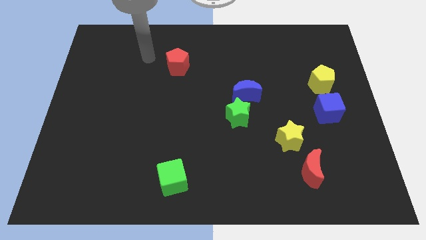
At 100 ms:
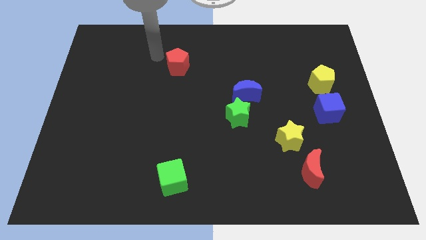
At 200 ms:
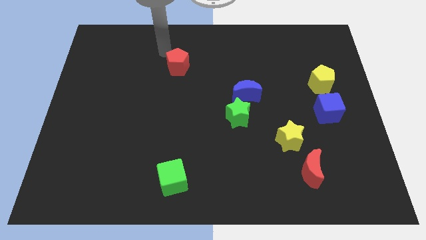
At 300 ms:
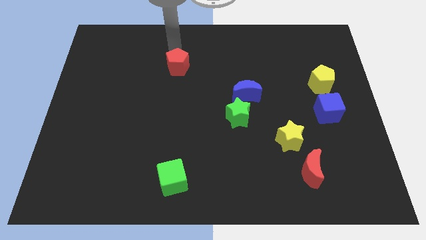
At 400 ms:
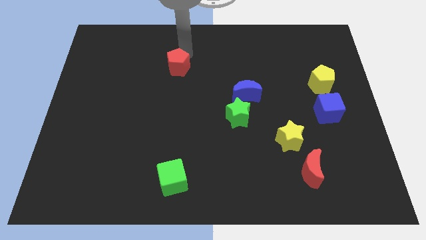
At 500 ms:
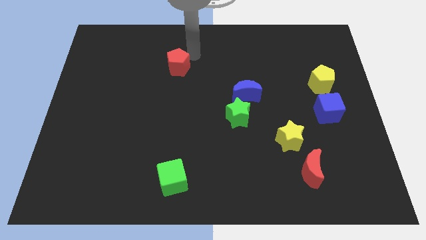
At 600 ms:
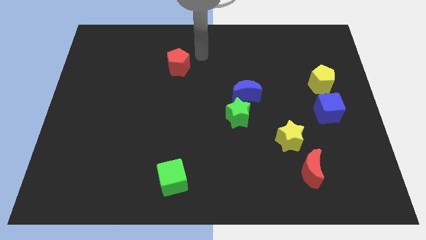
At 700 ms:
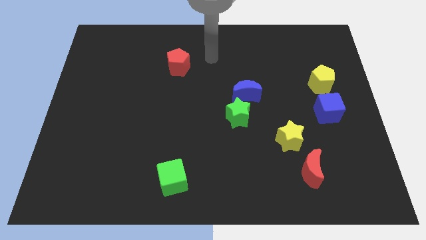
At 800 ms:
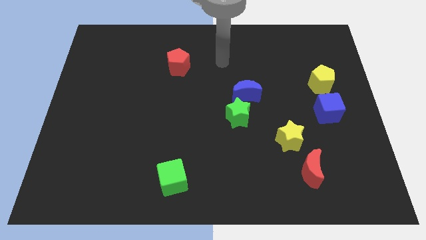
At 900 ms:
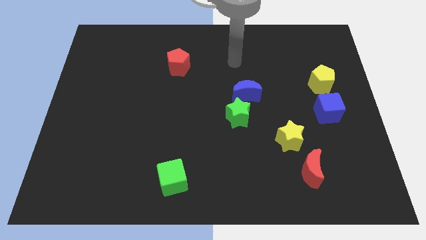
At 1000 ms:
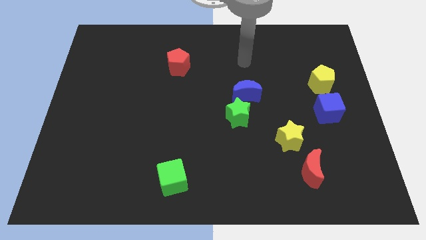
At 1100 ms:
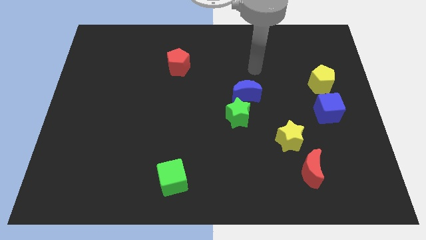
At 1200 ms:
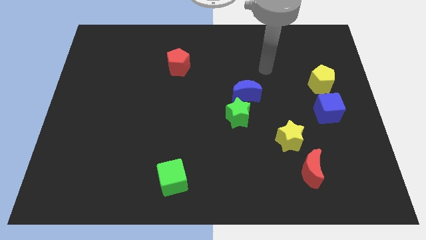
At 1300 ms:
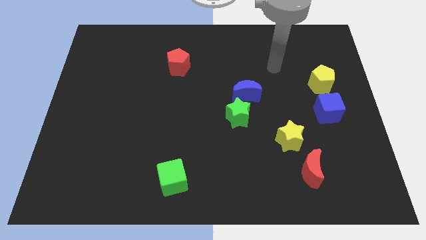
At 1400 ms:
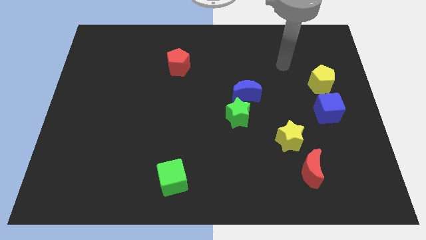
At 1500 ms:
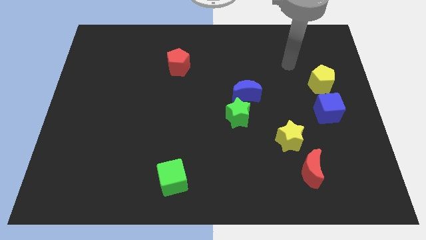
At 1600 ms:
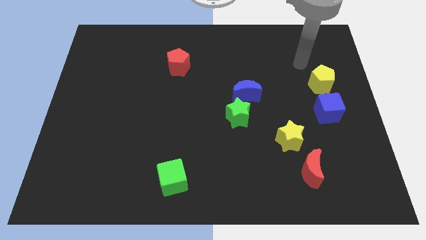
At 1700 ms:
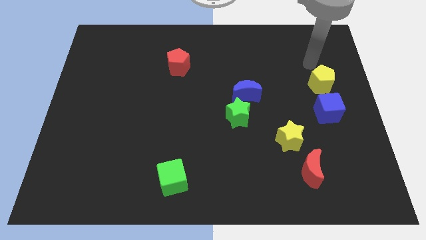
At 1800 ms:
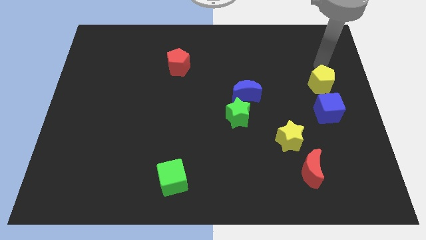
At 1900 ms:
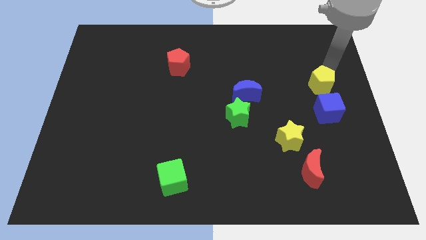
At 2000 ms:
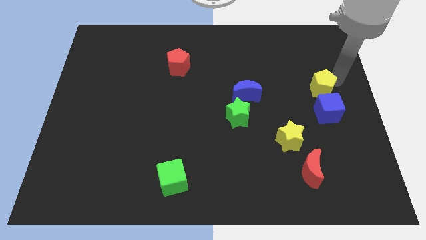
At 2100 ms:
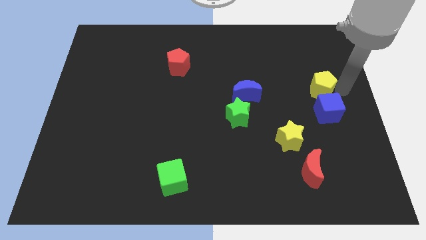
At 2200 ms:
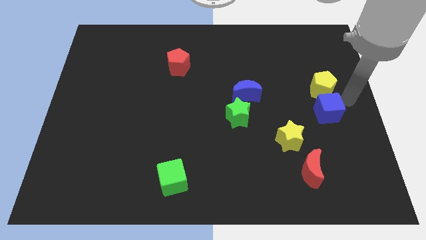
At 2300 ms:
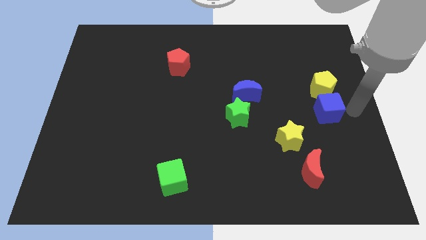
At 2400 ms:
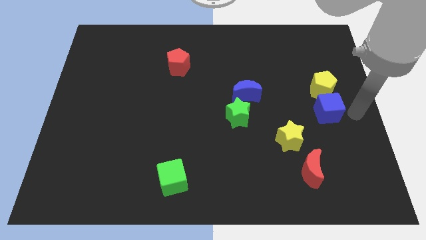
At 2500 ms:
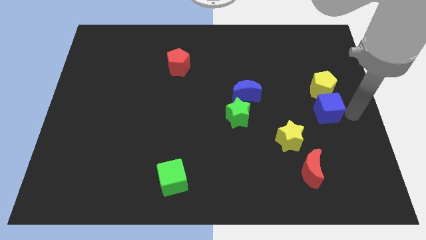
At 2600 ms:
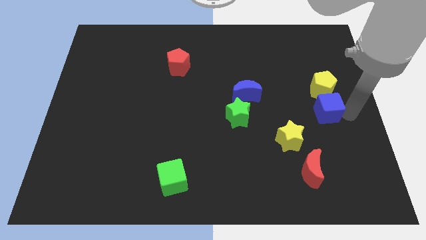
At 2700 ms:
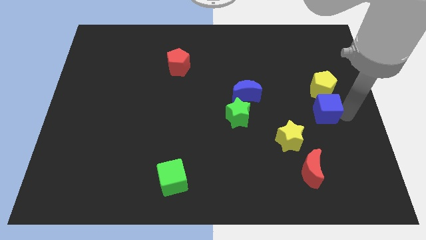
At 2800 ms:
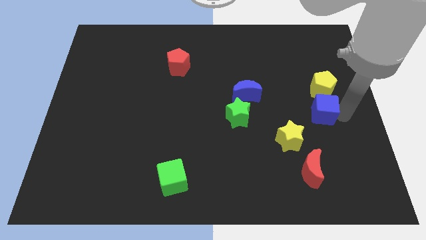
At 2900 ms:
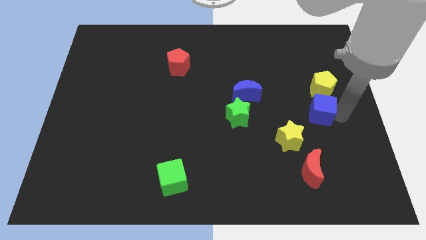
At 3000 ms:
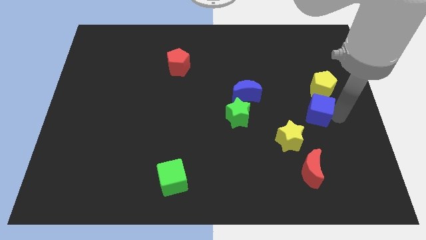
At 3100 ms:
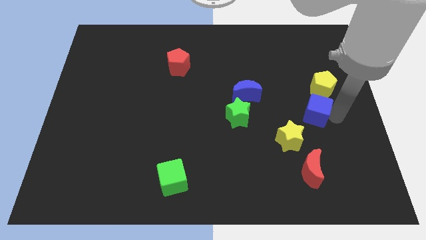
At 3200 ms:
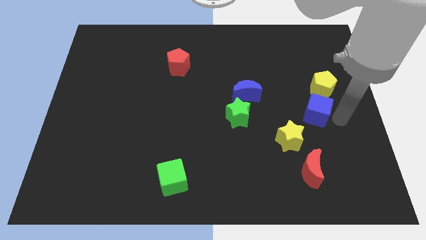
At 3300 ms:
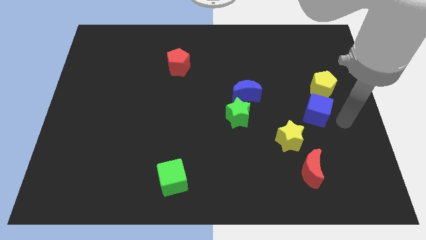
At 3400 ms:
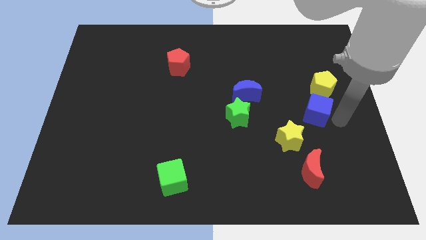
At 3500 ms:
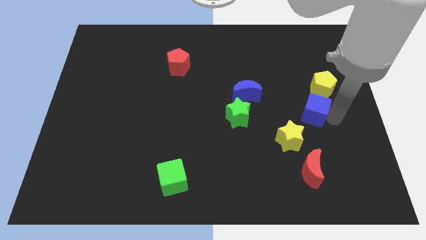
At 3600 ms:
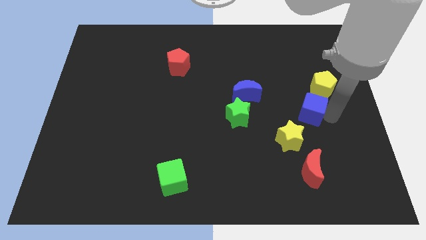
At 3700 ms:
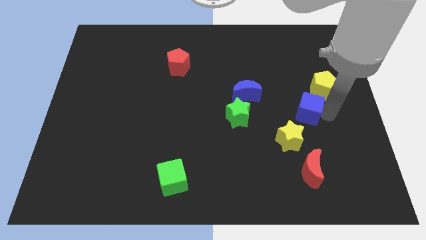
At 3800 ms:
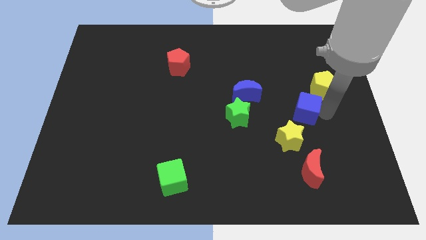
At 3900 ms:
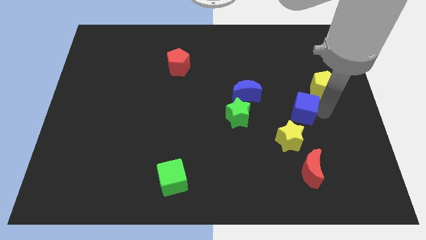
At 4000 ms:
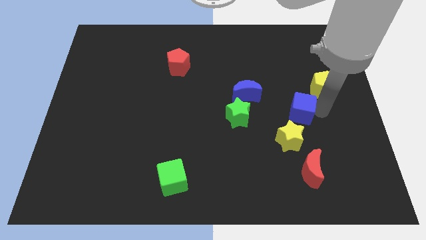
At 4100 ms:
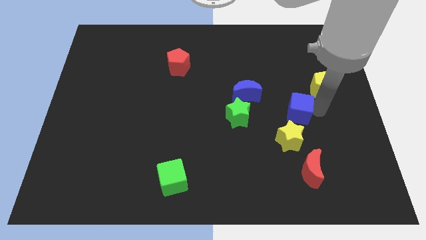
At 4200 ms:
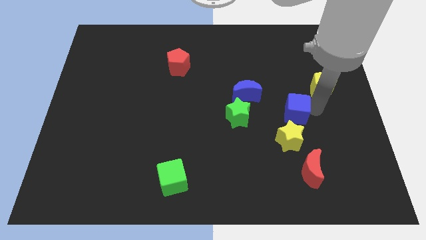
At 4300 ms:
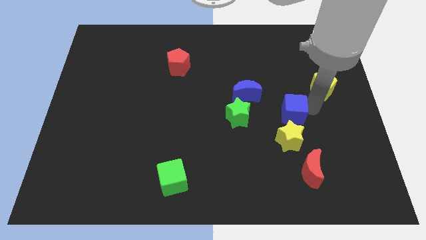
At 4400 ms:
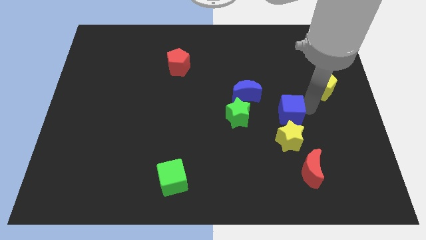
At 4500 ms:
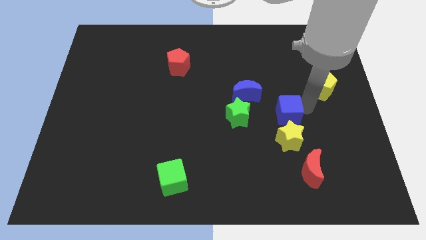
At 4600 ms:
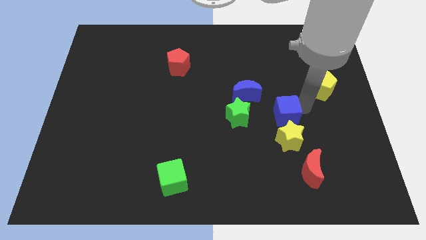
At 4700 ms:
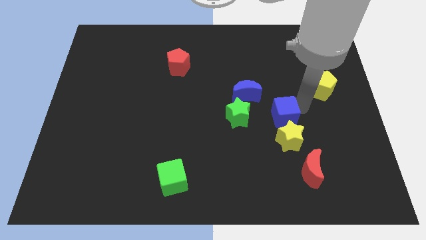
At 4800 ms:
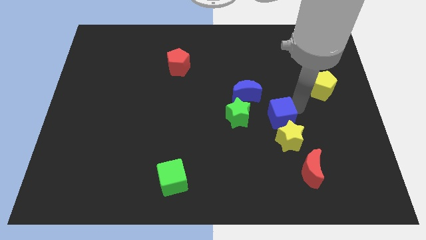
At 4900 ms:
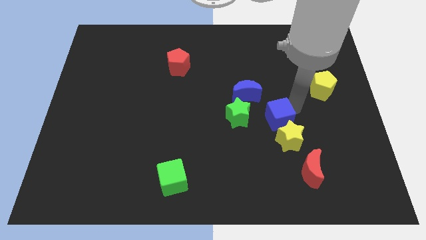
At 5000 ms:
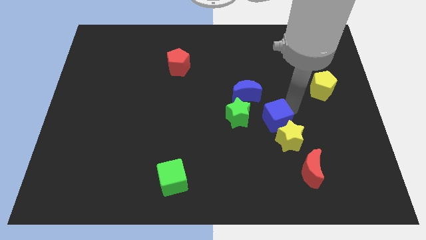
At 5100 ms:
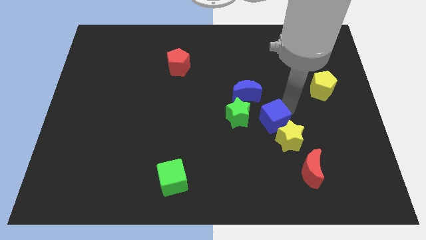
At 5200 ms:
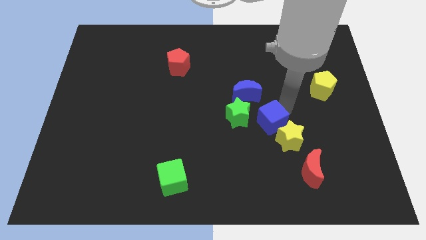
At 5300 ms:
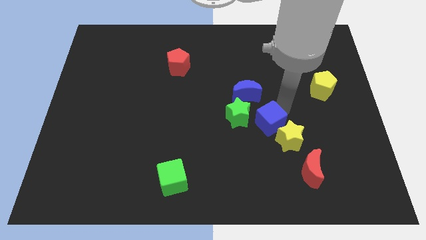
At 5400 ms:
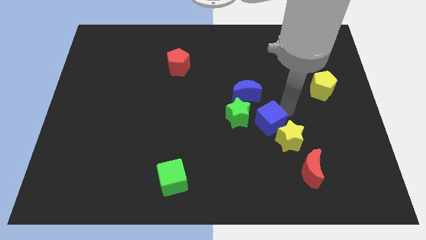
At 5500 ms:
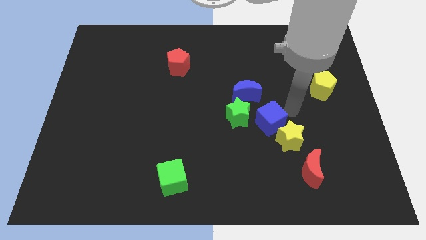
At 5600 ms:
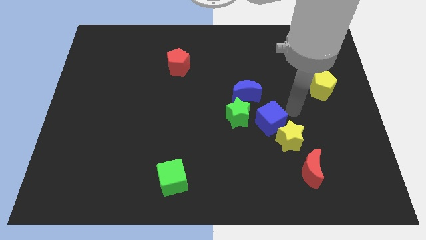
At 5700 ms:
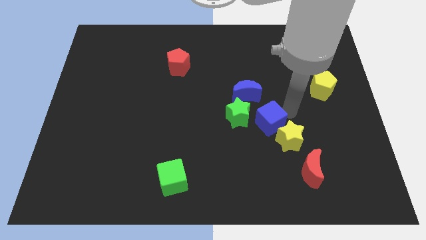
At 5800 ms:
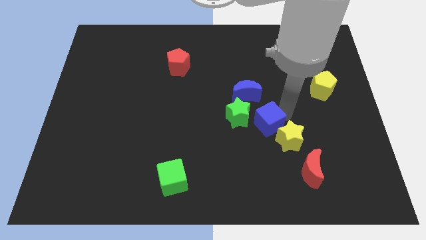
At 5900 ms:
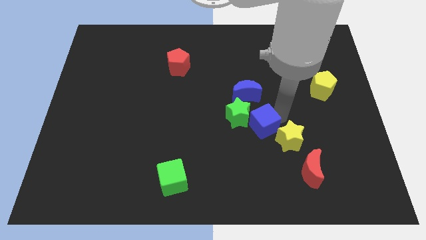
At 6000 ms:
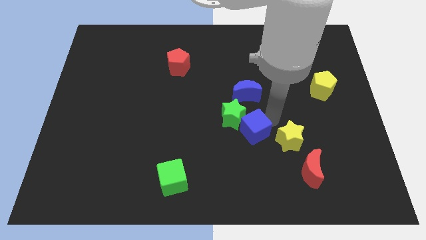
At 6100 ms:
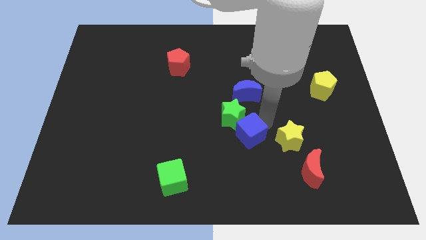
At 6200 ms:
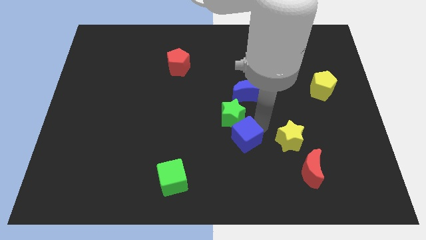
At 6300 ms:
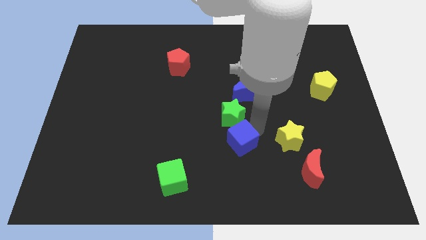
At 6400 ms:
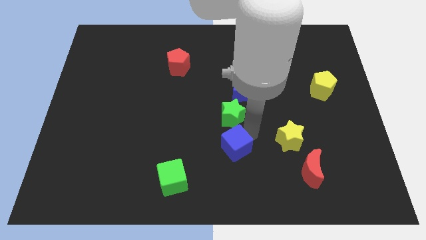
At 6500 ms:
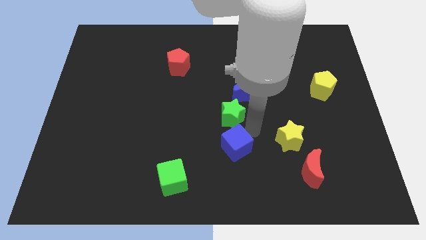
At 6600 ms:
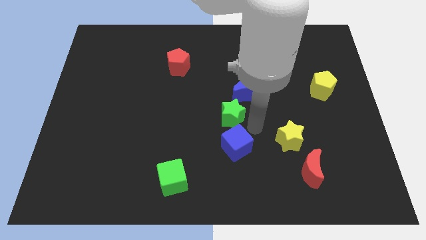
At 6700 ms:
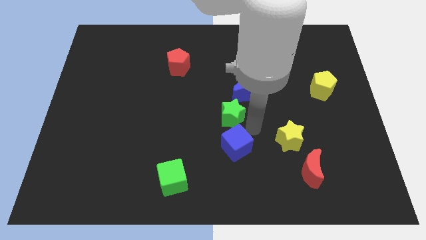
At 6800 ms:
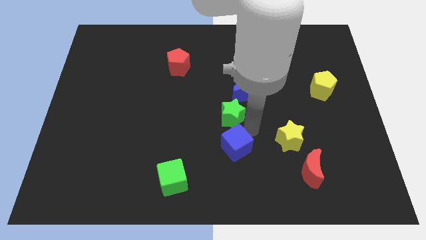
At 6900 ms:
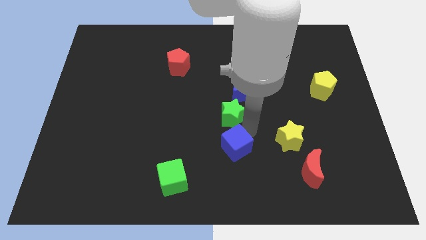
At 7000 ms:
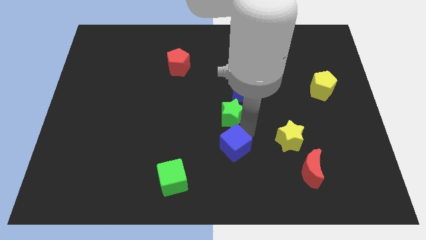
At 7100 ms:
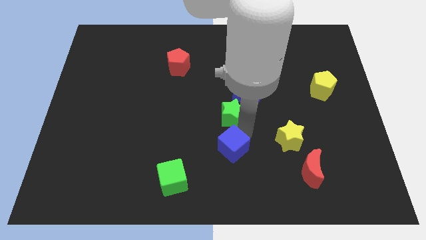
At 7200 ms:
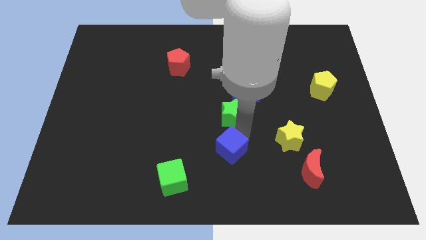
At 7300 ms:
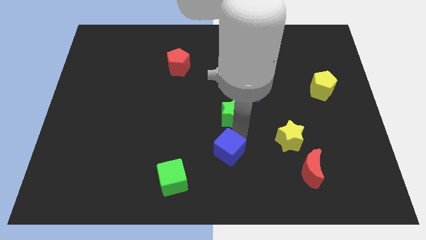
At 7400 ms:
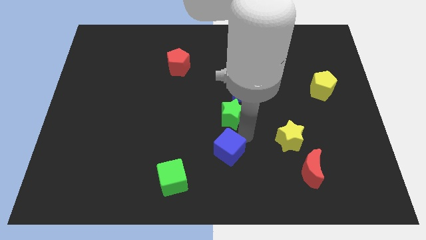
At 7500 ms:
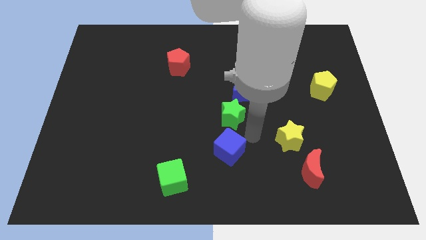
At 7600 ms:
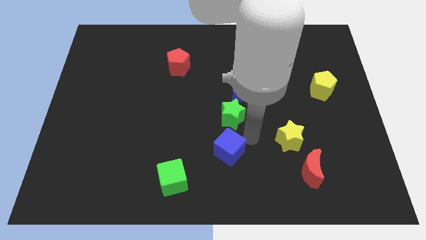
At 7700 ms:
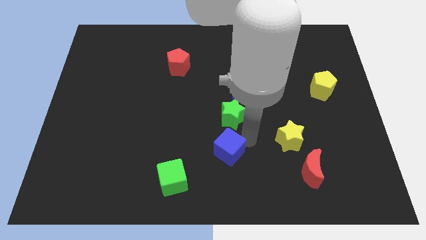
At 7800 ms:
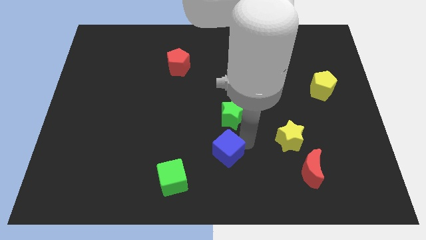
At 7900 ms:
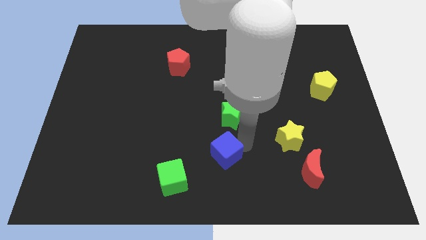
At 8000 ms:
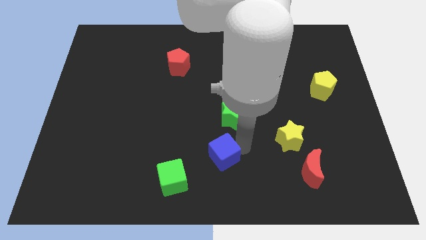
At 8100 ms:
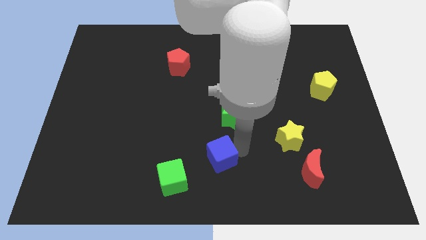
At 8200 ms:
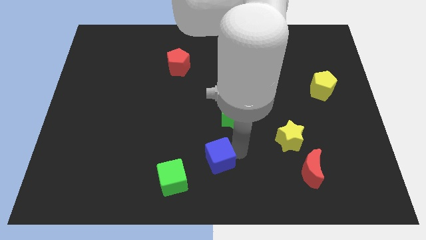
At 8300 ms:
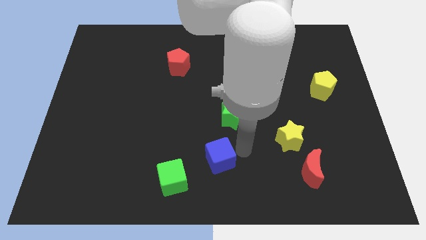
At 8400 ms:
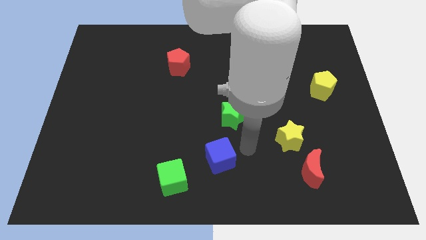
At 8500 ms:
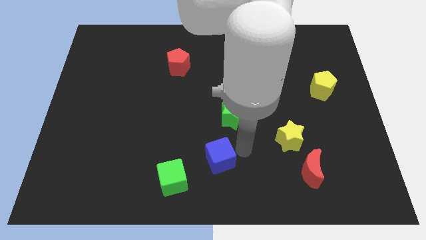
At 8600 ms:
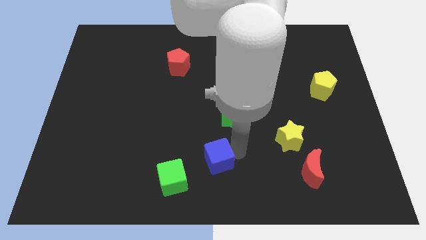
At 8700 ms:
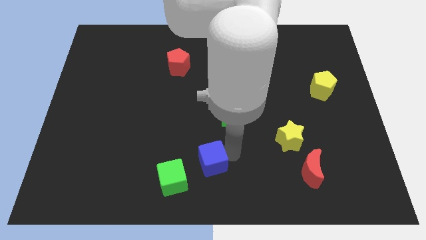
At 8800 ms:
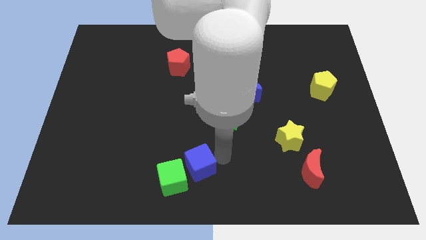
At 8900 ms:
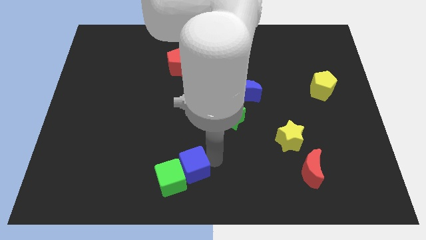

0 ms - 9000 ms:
push the blue cube next to the green cube
